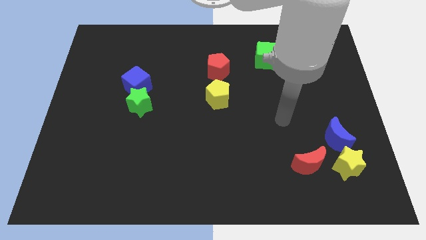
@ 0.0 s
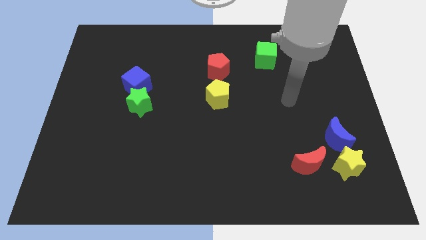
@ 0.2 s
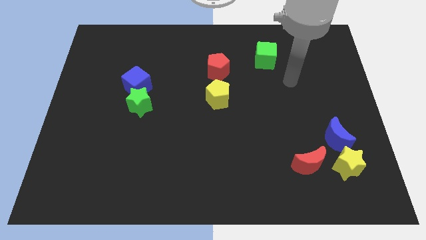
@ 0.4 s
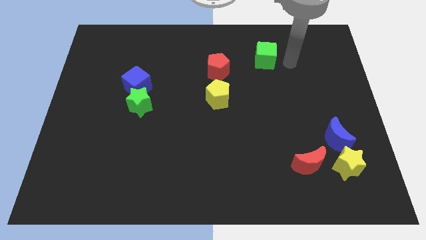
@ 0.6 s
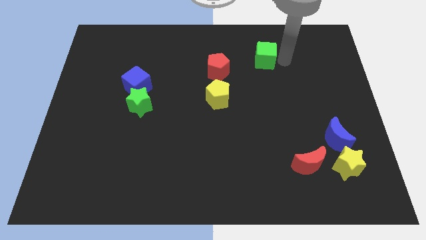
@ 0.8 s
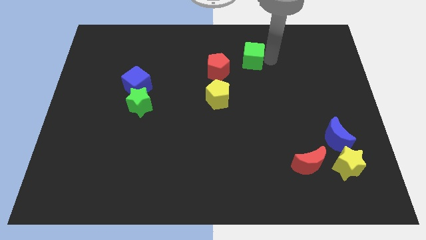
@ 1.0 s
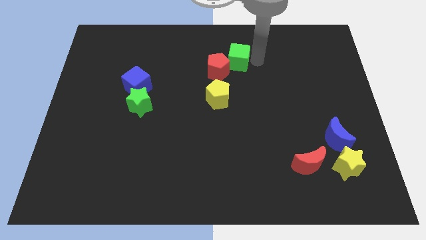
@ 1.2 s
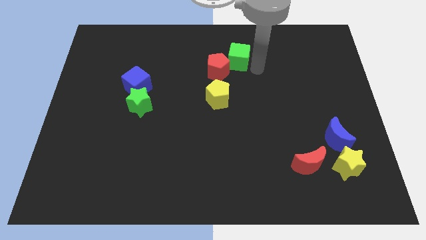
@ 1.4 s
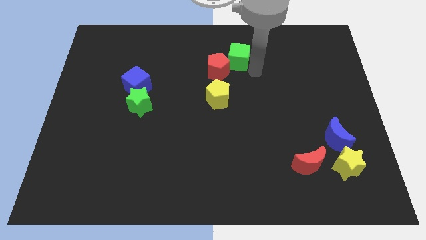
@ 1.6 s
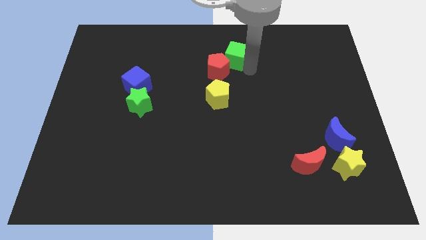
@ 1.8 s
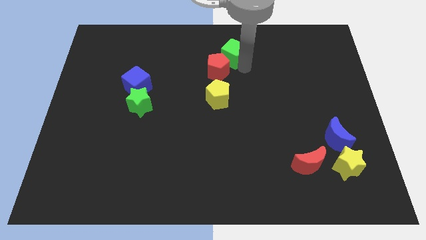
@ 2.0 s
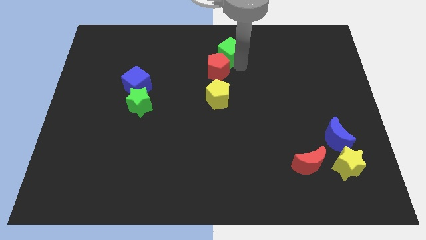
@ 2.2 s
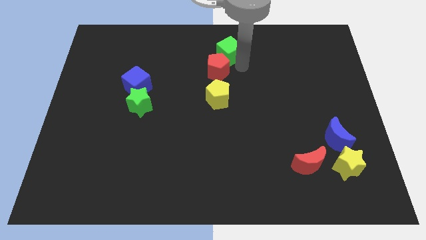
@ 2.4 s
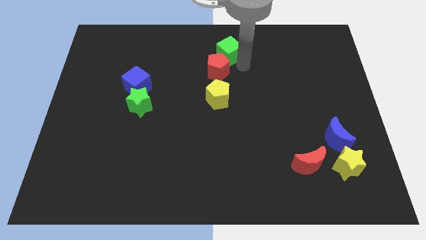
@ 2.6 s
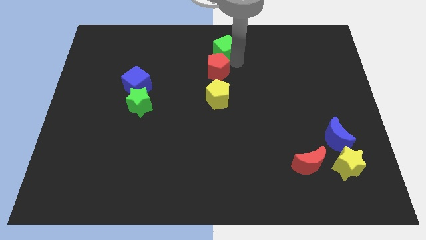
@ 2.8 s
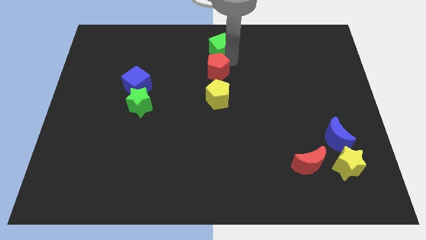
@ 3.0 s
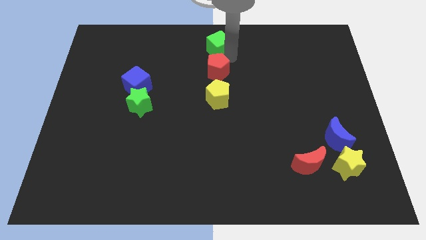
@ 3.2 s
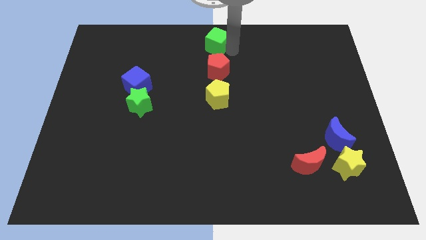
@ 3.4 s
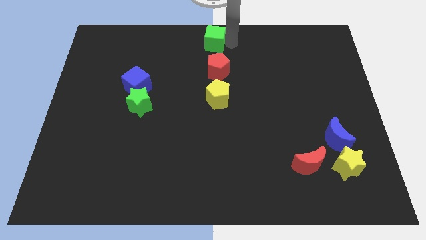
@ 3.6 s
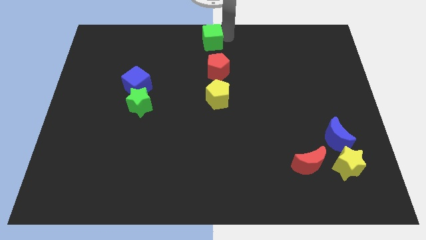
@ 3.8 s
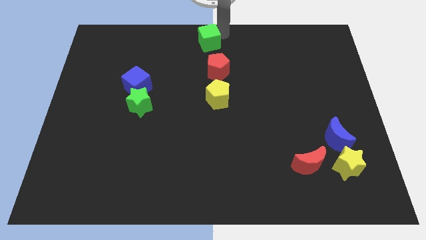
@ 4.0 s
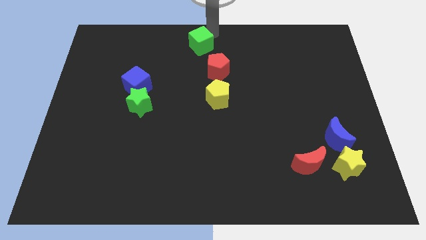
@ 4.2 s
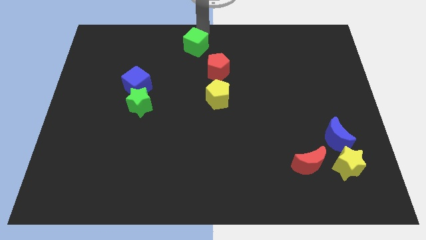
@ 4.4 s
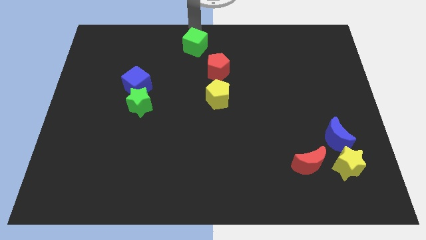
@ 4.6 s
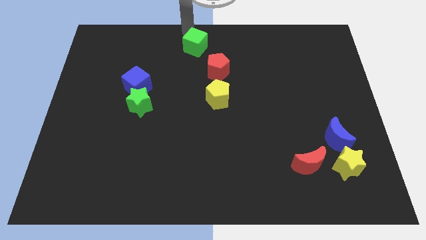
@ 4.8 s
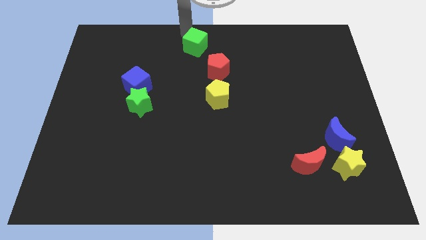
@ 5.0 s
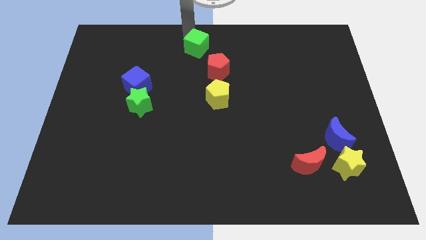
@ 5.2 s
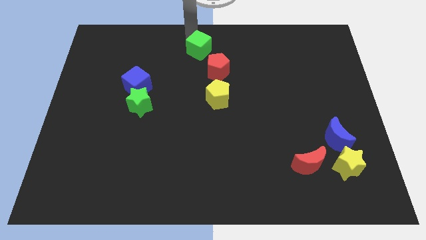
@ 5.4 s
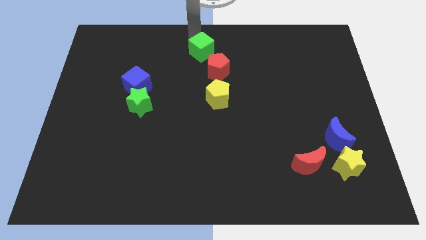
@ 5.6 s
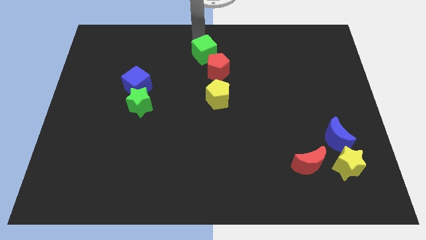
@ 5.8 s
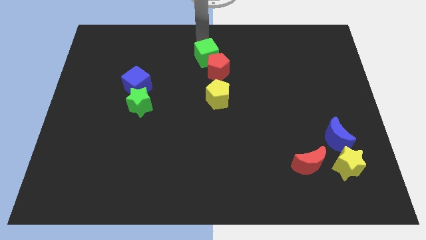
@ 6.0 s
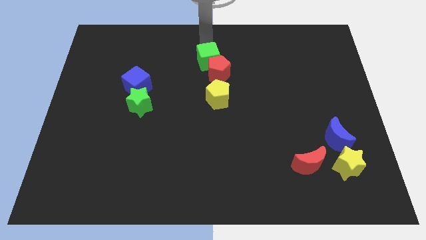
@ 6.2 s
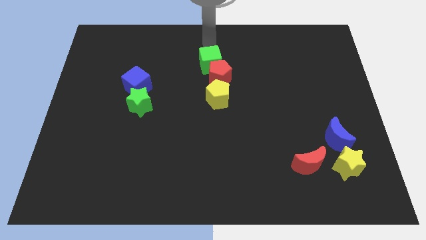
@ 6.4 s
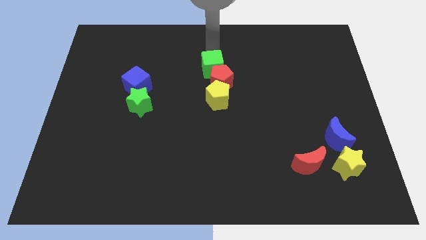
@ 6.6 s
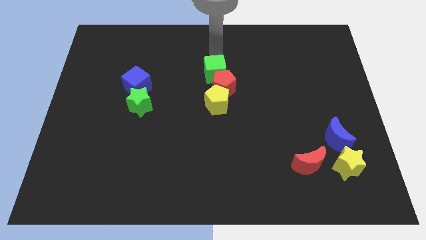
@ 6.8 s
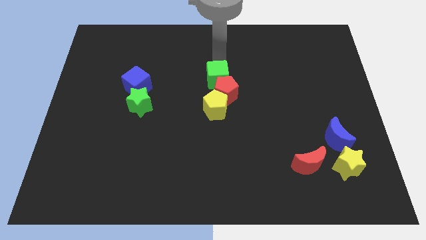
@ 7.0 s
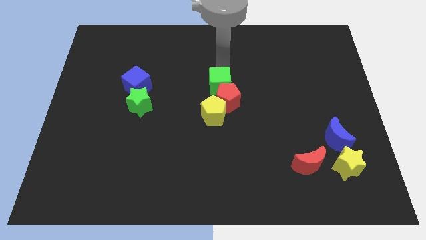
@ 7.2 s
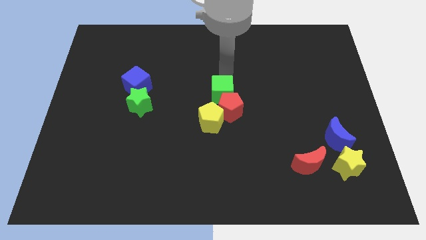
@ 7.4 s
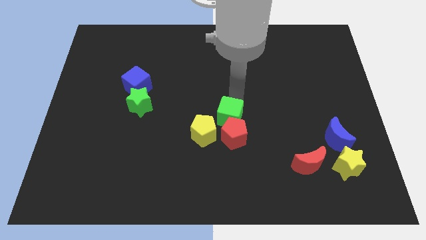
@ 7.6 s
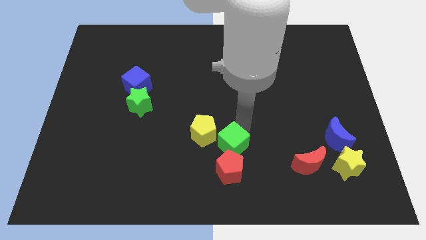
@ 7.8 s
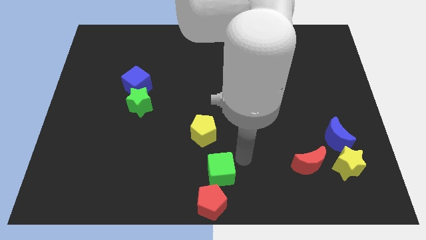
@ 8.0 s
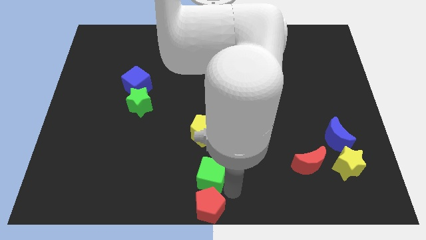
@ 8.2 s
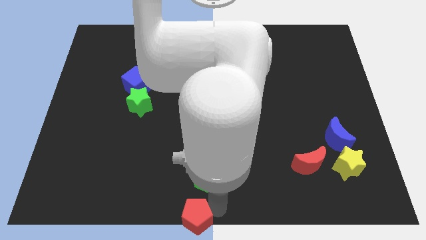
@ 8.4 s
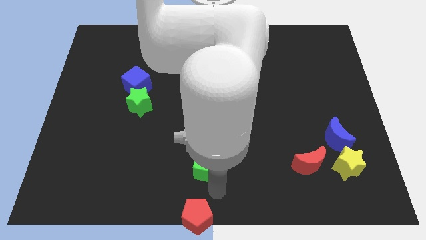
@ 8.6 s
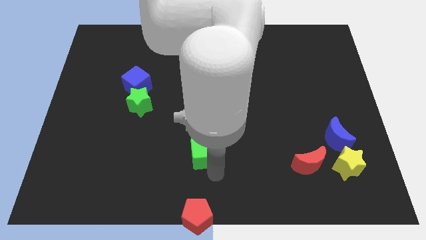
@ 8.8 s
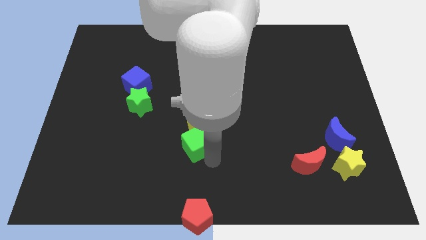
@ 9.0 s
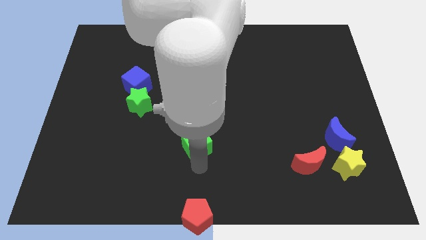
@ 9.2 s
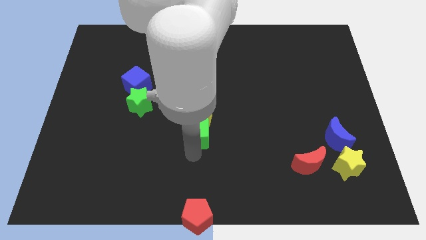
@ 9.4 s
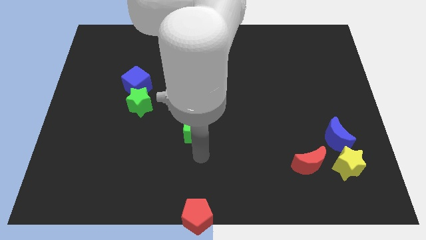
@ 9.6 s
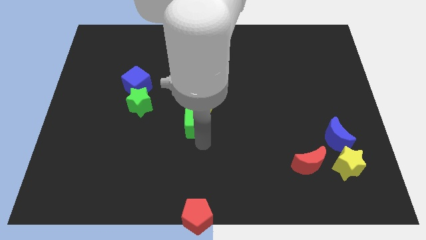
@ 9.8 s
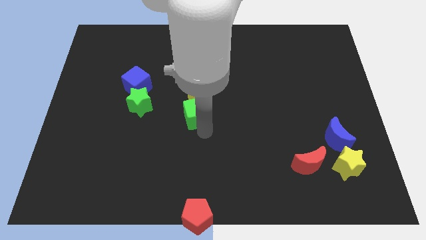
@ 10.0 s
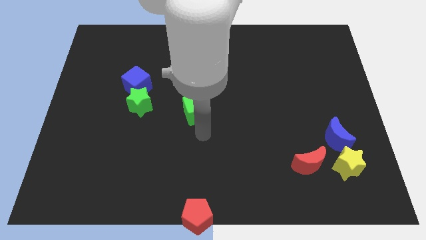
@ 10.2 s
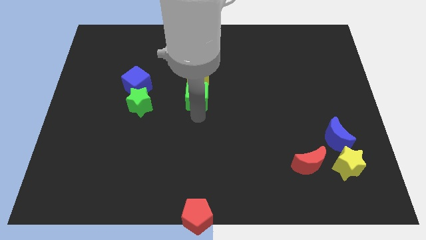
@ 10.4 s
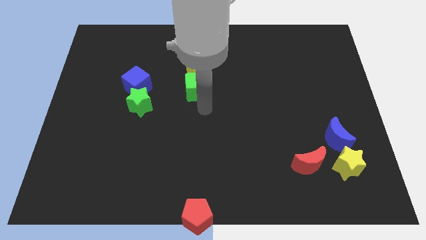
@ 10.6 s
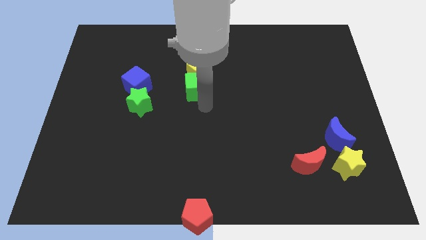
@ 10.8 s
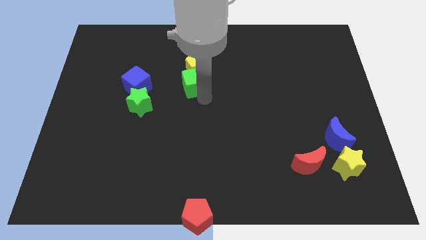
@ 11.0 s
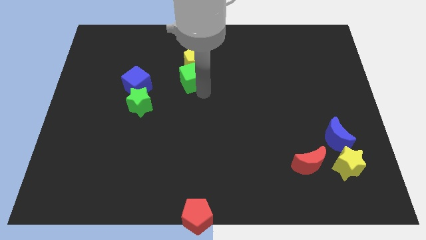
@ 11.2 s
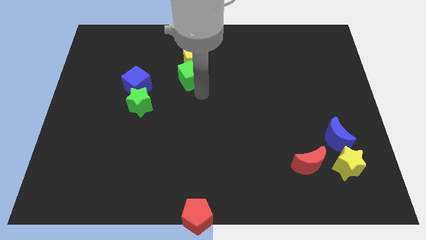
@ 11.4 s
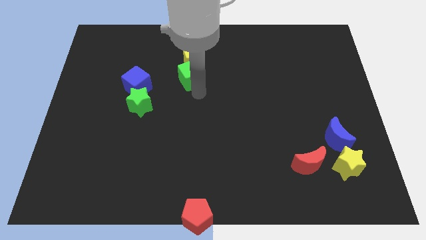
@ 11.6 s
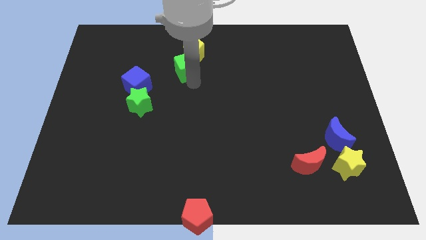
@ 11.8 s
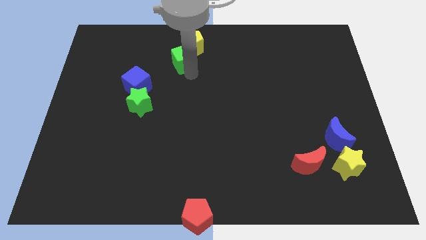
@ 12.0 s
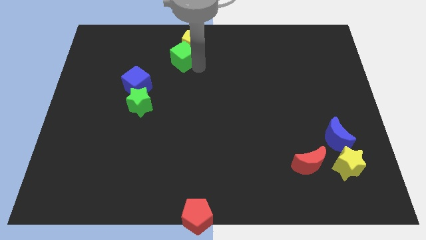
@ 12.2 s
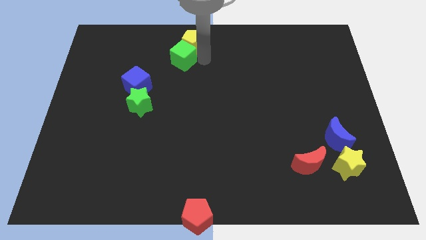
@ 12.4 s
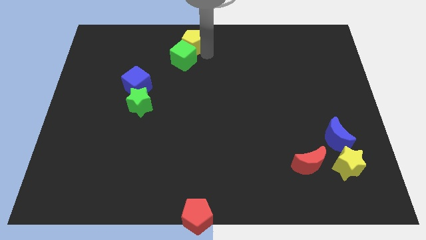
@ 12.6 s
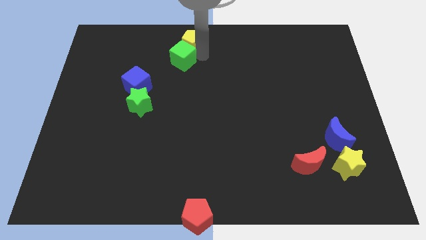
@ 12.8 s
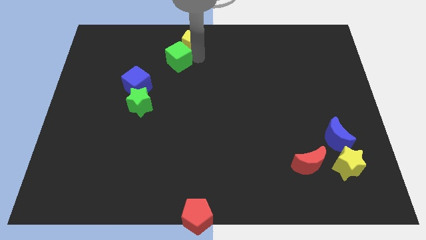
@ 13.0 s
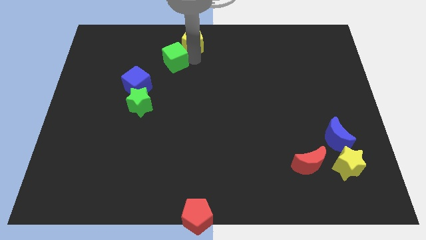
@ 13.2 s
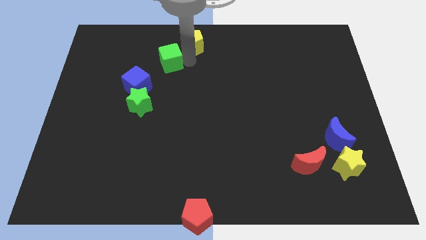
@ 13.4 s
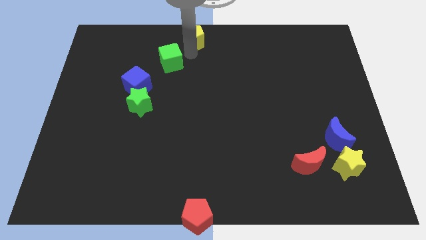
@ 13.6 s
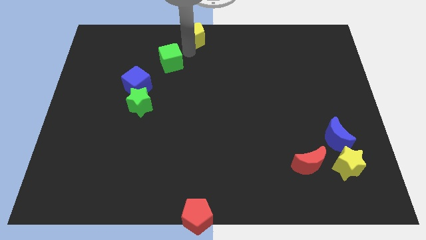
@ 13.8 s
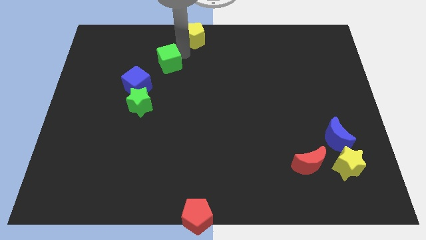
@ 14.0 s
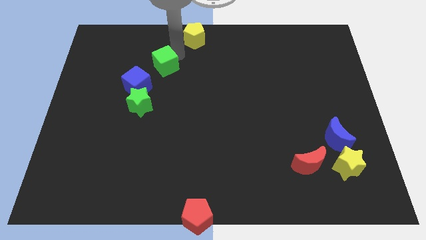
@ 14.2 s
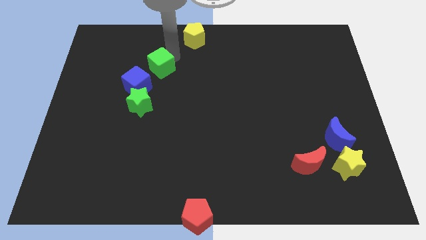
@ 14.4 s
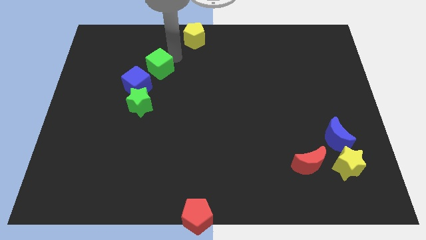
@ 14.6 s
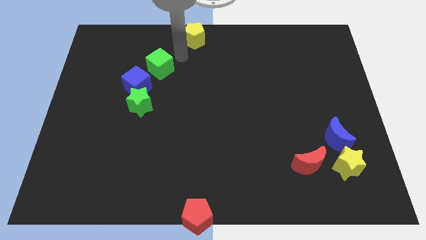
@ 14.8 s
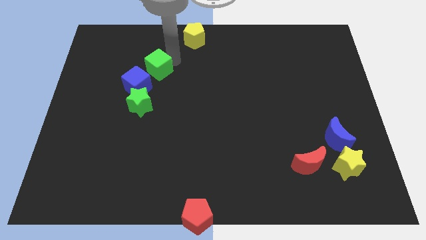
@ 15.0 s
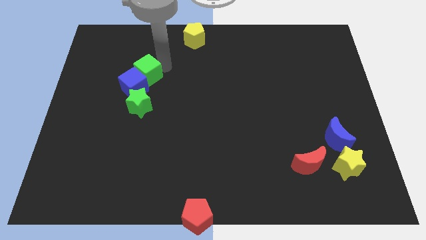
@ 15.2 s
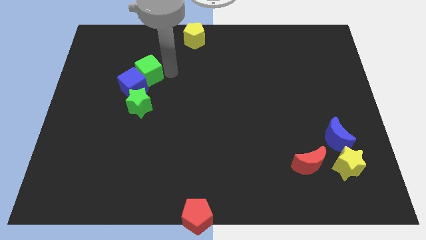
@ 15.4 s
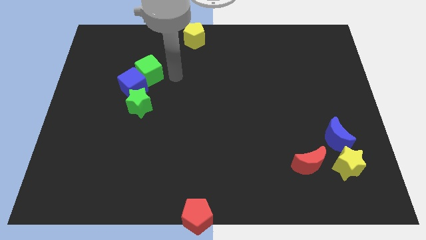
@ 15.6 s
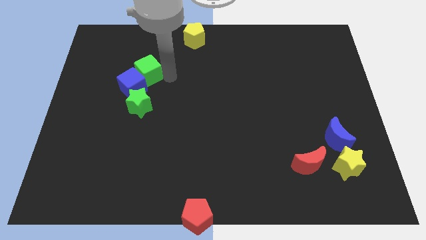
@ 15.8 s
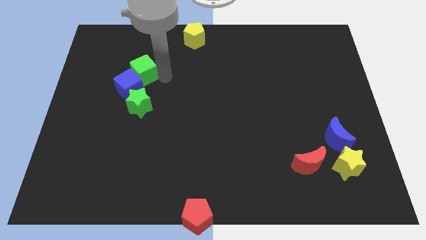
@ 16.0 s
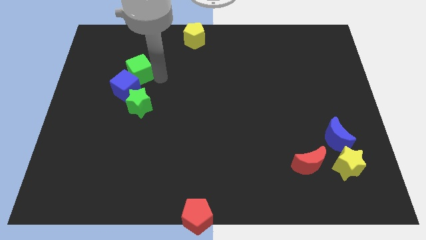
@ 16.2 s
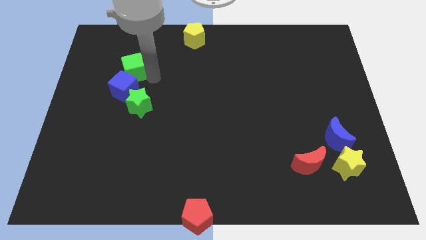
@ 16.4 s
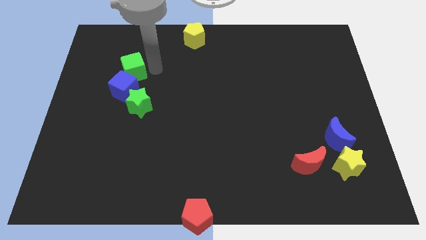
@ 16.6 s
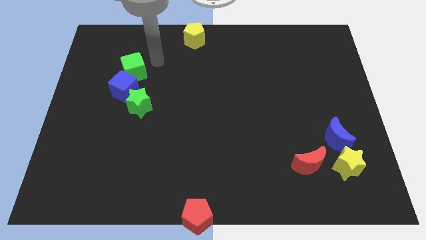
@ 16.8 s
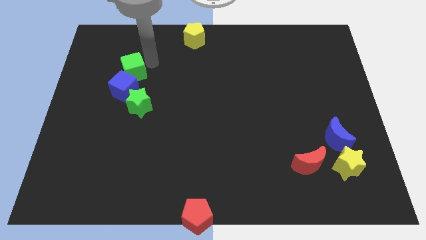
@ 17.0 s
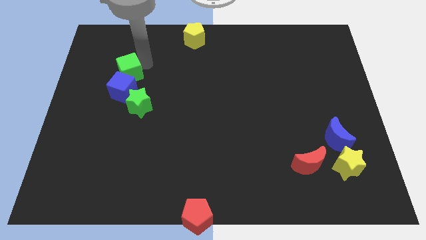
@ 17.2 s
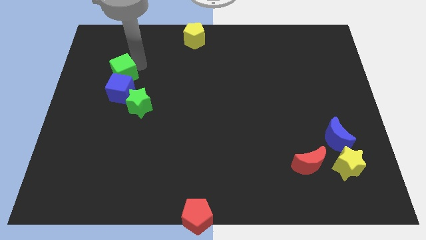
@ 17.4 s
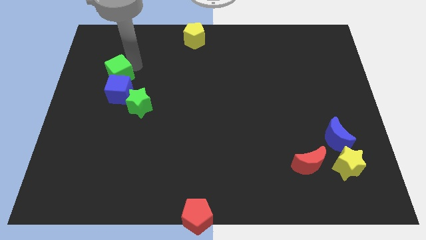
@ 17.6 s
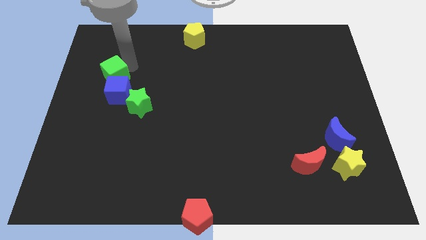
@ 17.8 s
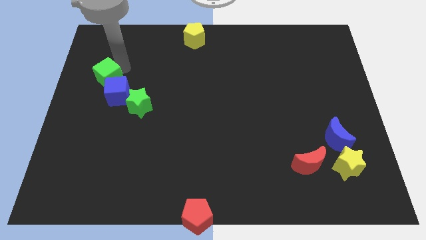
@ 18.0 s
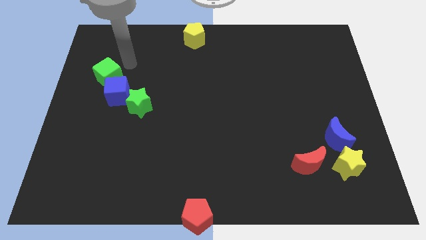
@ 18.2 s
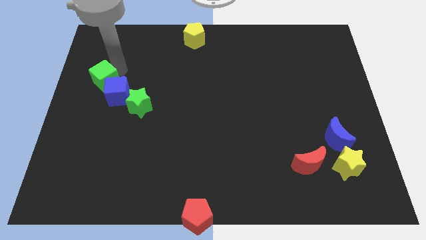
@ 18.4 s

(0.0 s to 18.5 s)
move the green cube to the left side
